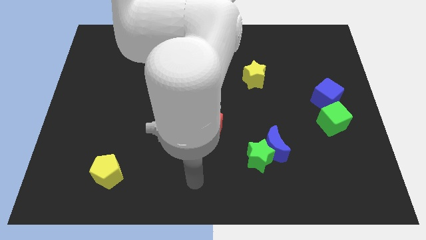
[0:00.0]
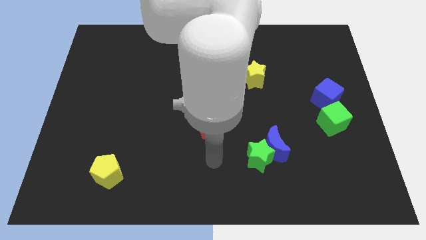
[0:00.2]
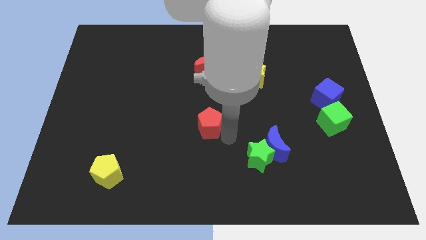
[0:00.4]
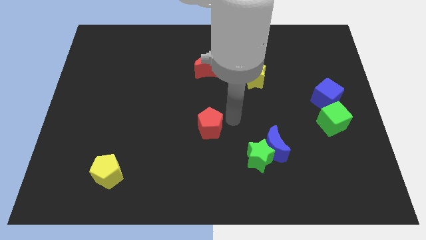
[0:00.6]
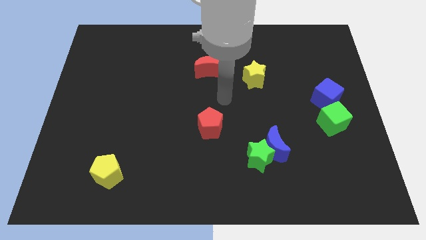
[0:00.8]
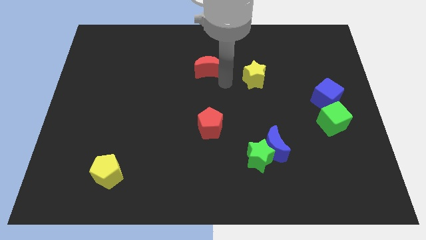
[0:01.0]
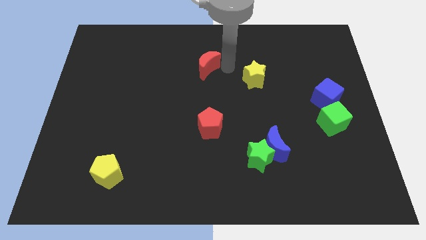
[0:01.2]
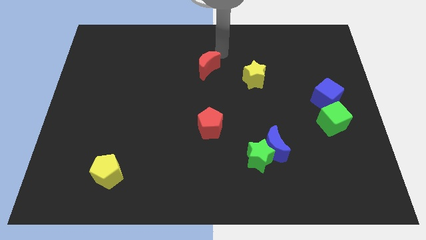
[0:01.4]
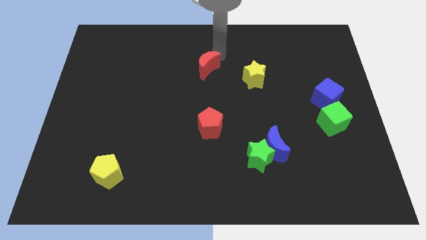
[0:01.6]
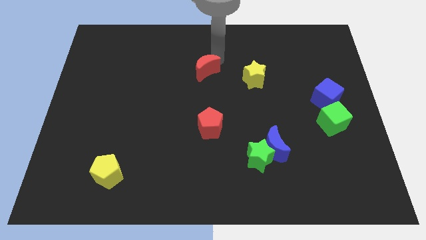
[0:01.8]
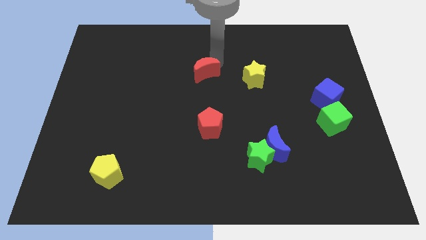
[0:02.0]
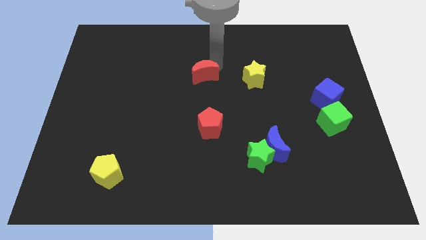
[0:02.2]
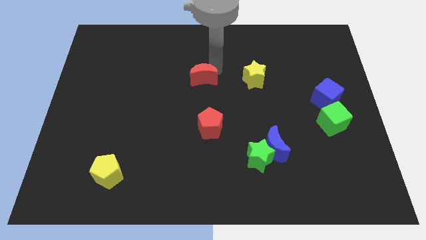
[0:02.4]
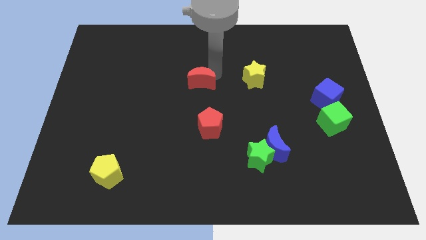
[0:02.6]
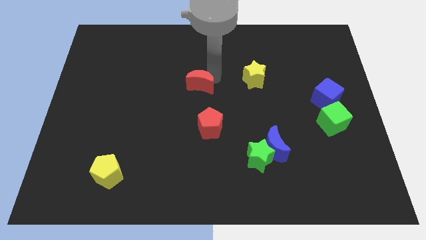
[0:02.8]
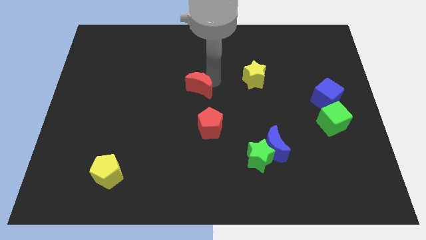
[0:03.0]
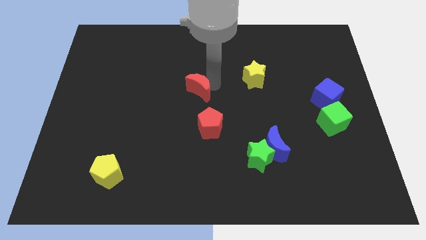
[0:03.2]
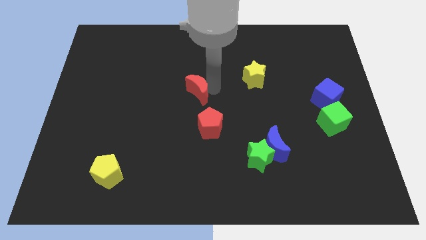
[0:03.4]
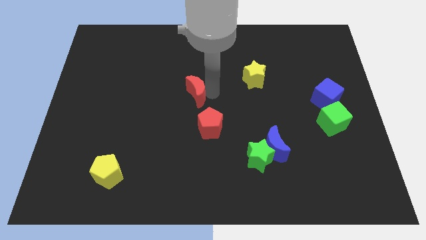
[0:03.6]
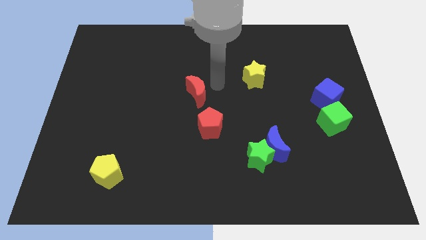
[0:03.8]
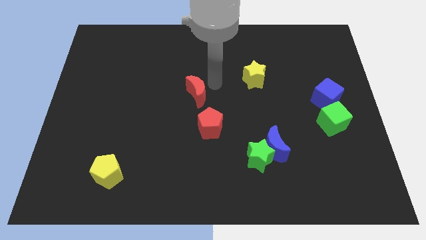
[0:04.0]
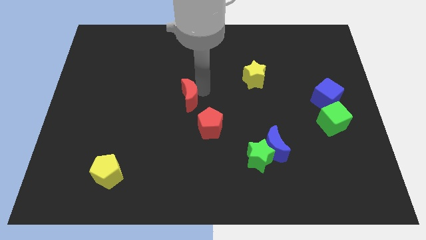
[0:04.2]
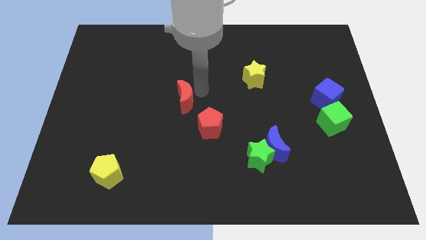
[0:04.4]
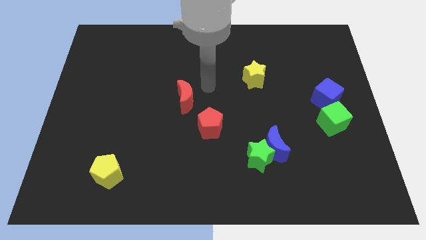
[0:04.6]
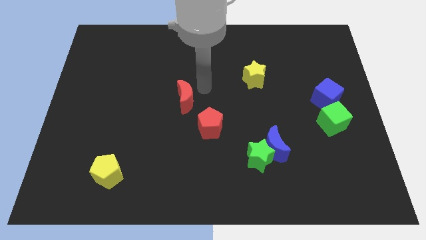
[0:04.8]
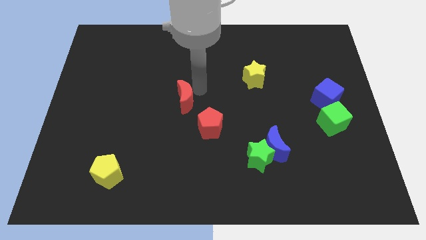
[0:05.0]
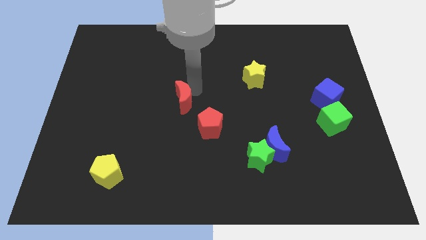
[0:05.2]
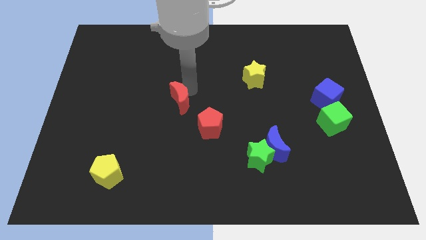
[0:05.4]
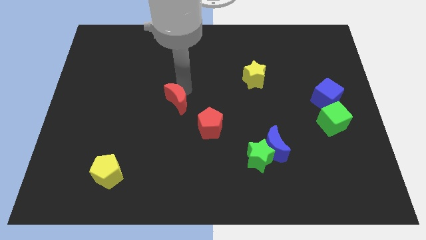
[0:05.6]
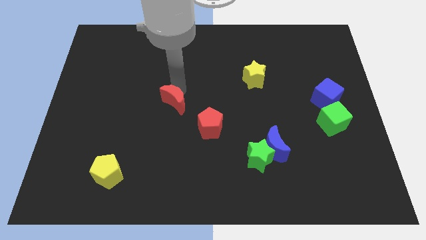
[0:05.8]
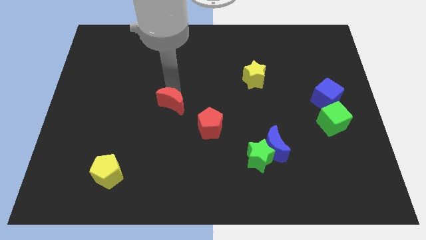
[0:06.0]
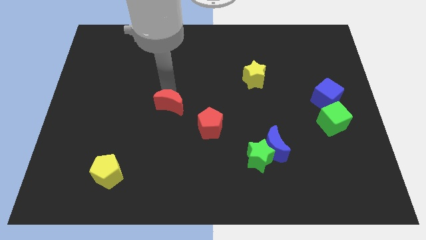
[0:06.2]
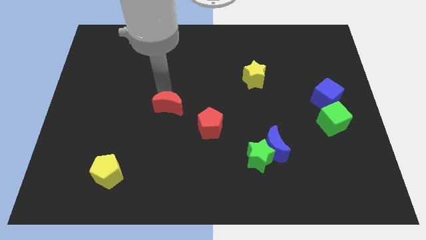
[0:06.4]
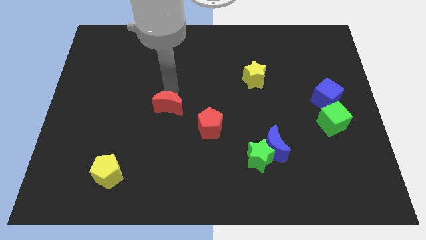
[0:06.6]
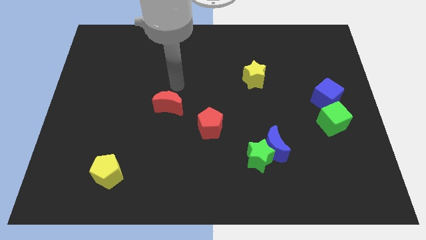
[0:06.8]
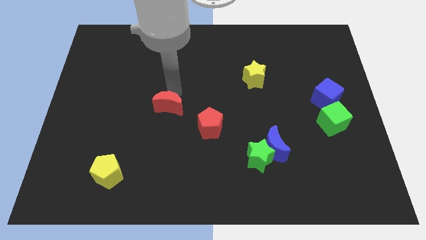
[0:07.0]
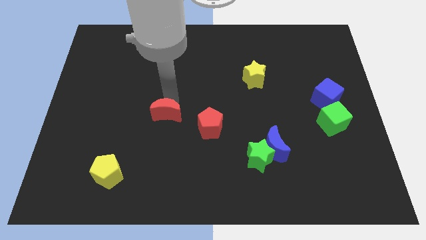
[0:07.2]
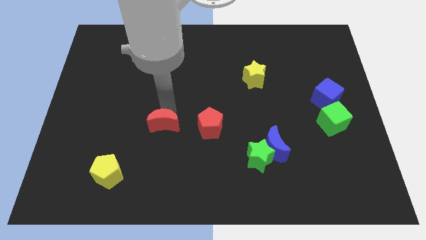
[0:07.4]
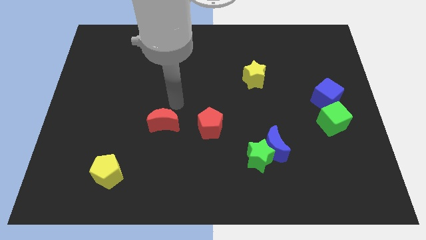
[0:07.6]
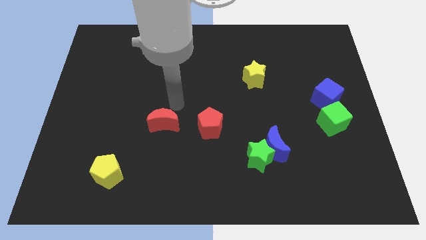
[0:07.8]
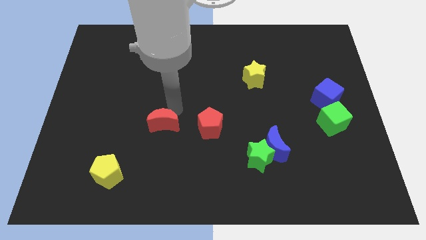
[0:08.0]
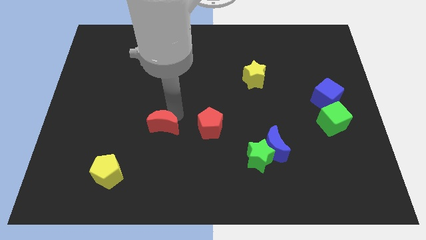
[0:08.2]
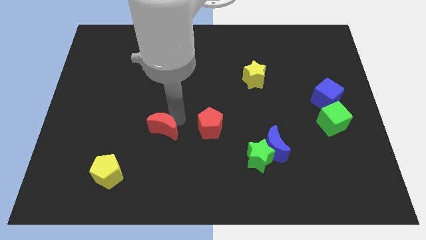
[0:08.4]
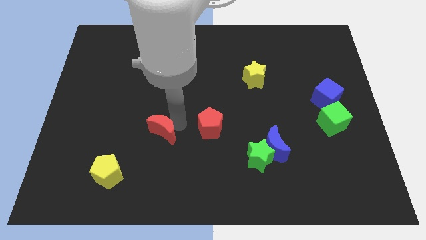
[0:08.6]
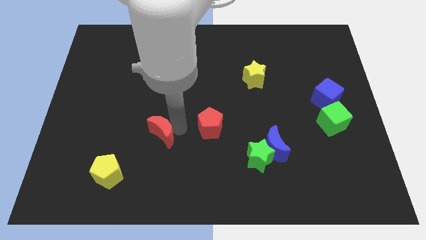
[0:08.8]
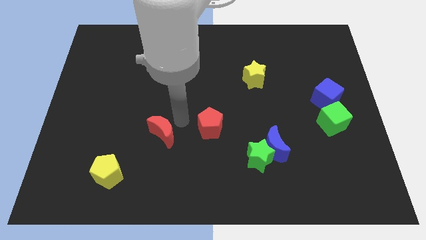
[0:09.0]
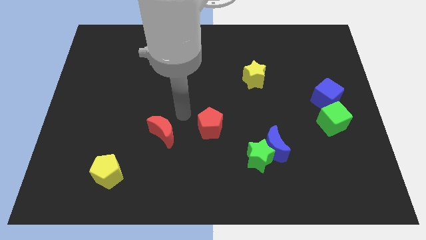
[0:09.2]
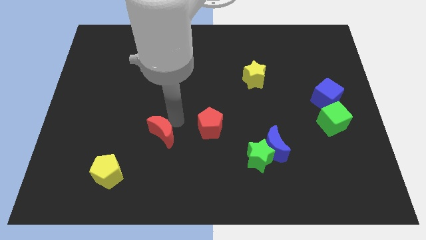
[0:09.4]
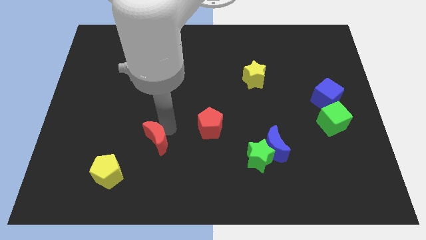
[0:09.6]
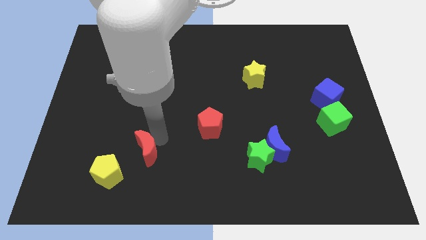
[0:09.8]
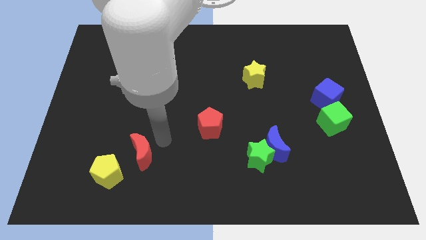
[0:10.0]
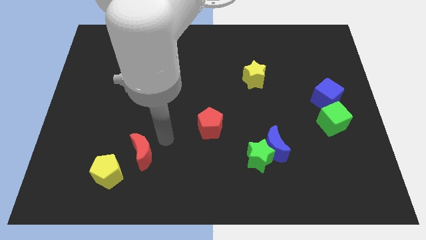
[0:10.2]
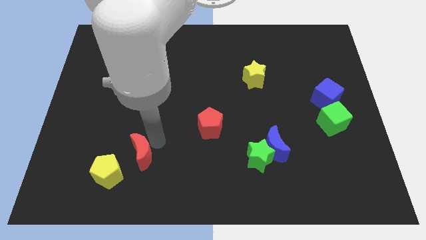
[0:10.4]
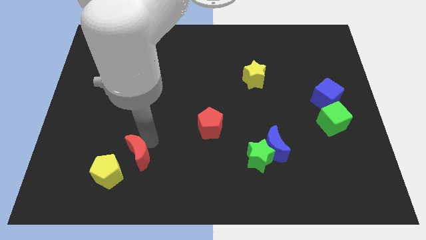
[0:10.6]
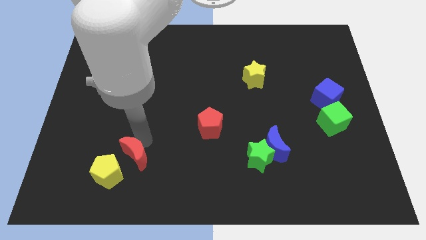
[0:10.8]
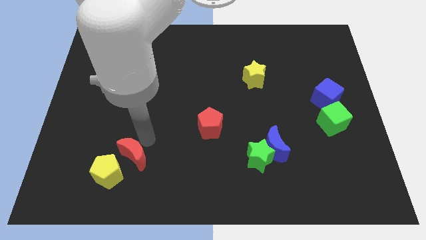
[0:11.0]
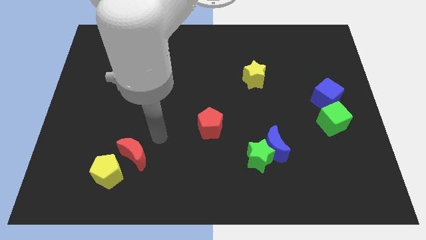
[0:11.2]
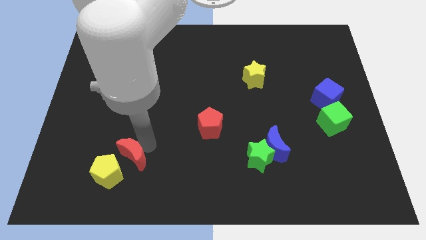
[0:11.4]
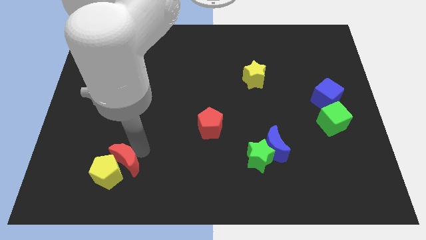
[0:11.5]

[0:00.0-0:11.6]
push the red moon next to the yellow pentagon

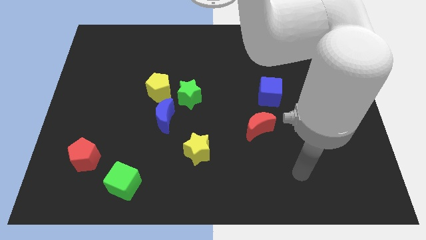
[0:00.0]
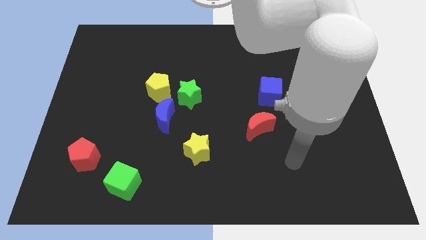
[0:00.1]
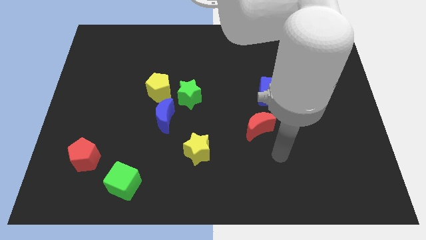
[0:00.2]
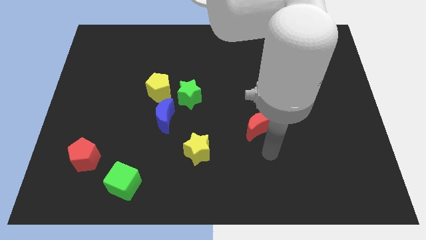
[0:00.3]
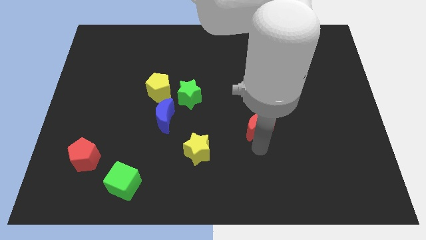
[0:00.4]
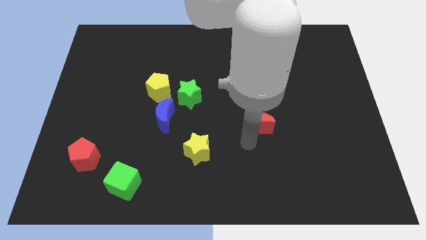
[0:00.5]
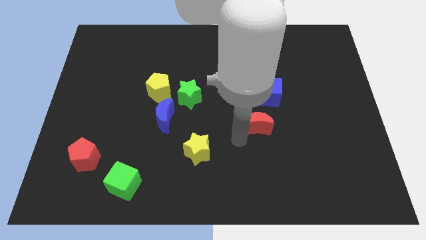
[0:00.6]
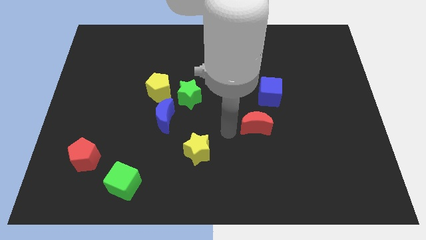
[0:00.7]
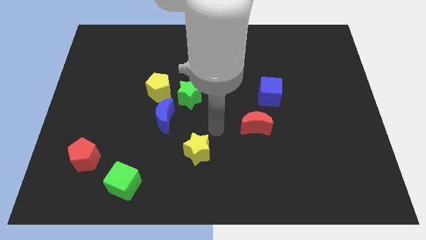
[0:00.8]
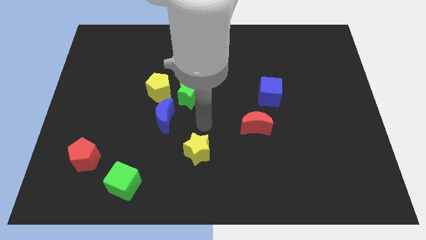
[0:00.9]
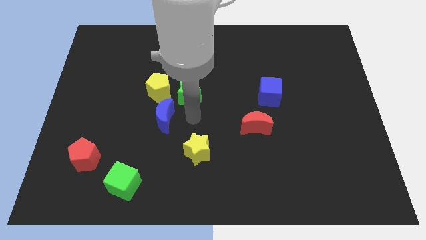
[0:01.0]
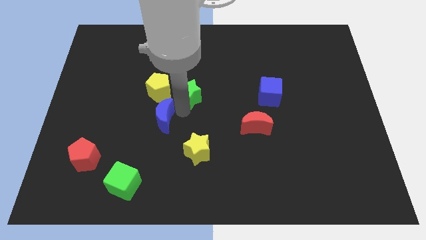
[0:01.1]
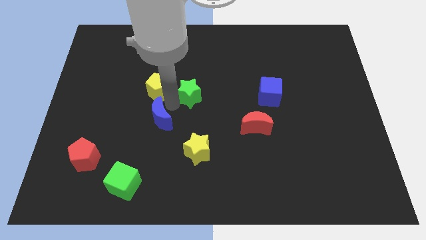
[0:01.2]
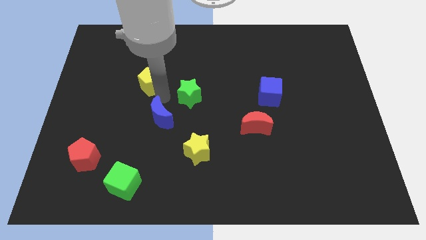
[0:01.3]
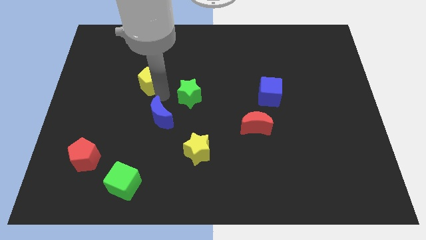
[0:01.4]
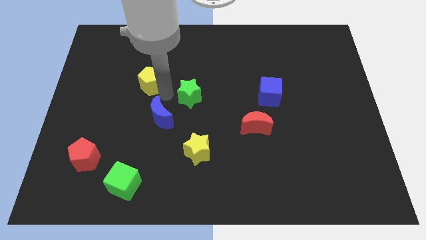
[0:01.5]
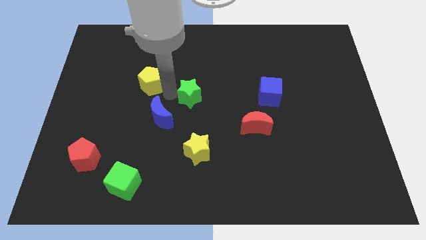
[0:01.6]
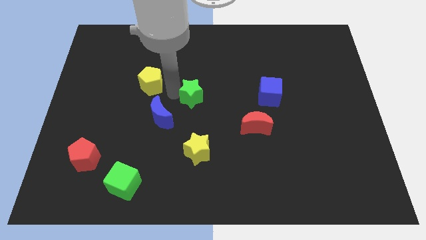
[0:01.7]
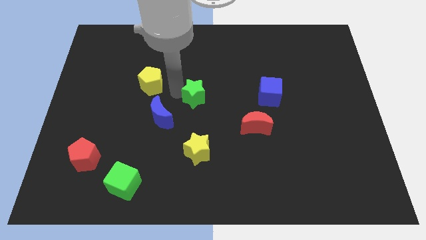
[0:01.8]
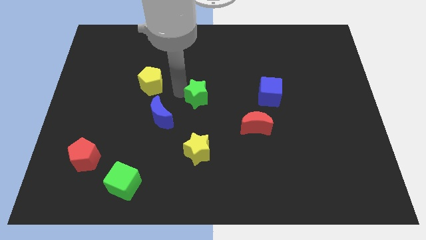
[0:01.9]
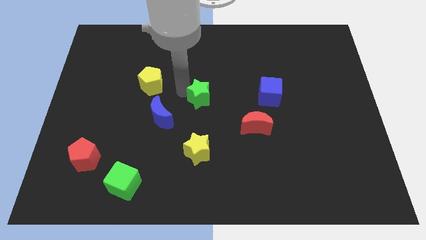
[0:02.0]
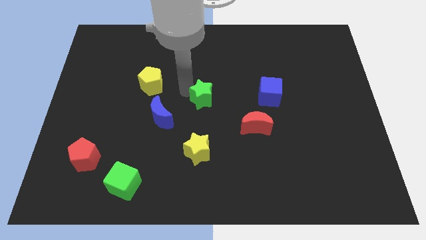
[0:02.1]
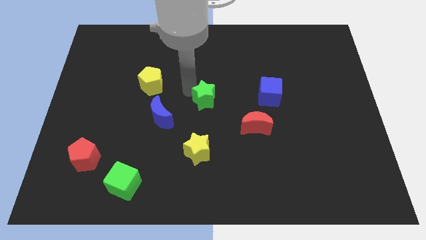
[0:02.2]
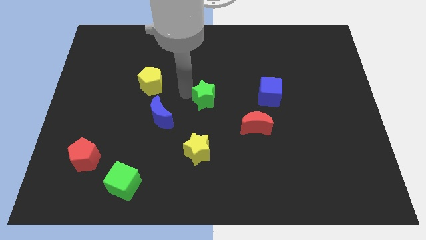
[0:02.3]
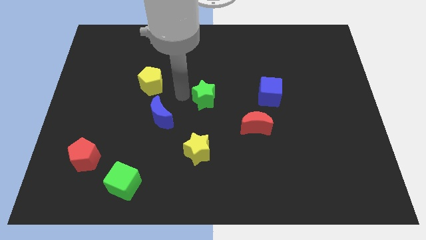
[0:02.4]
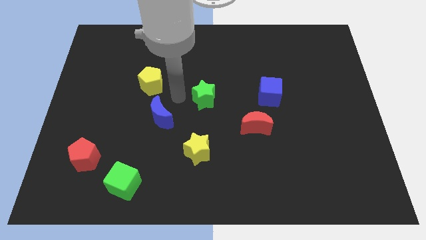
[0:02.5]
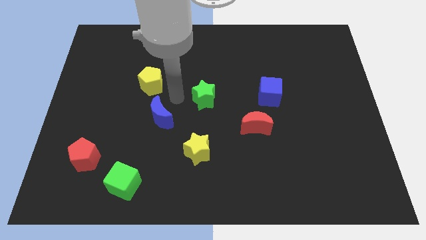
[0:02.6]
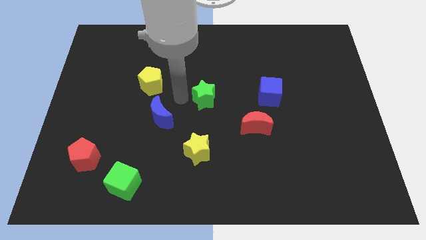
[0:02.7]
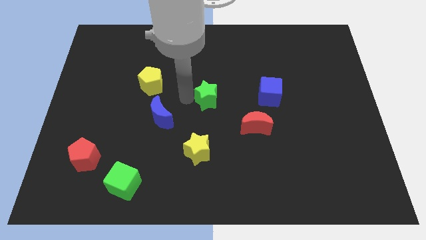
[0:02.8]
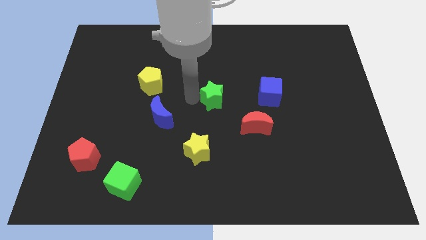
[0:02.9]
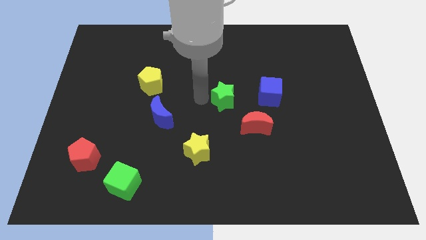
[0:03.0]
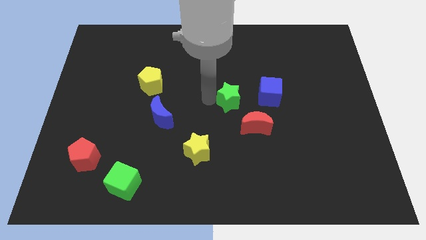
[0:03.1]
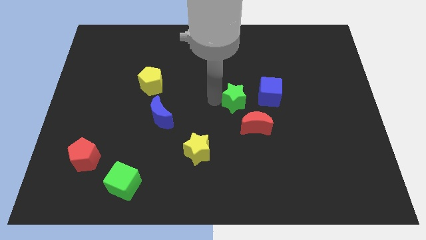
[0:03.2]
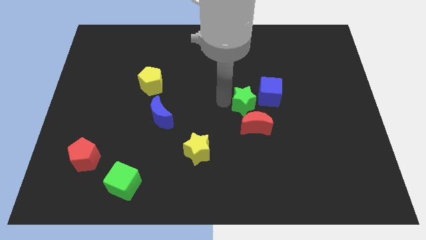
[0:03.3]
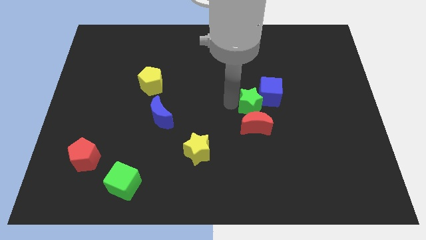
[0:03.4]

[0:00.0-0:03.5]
slide the green star towards the blue cube
